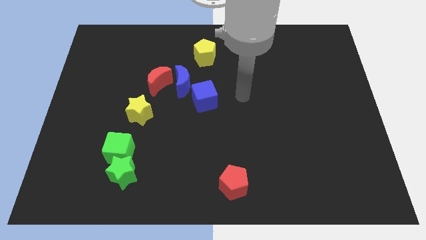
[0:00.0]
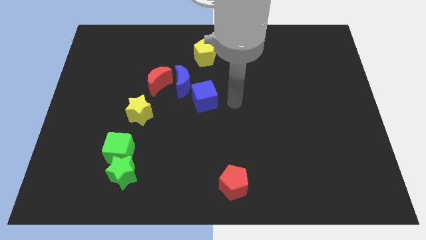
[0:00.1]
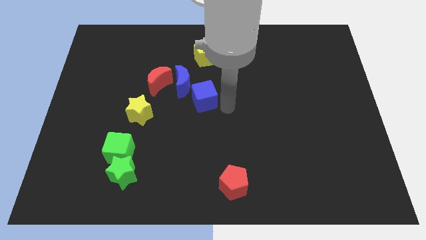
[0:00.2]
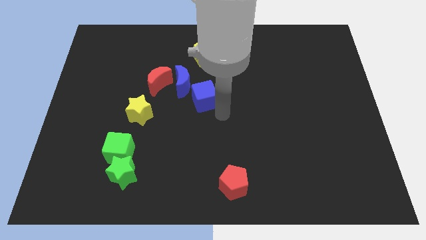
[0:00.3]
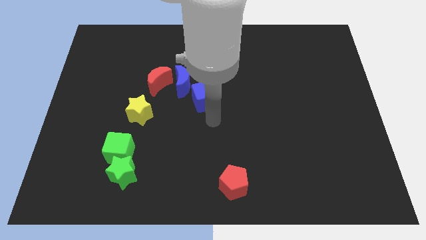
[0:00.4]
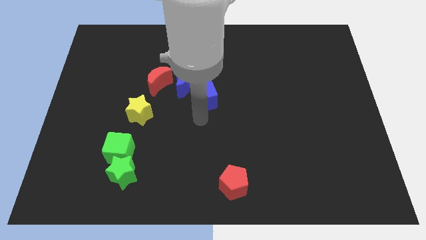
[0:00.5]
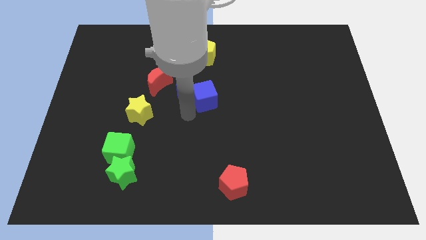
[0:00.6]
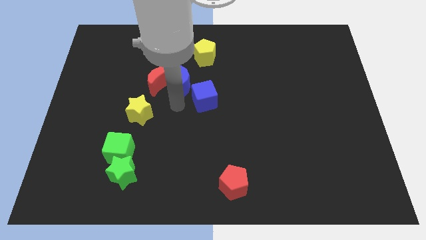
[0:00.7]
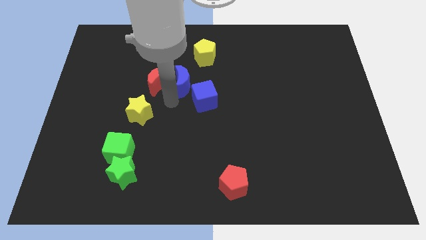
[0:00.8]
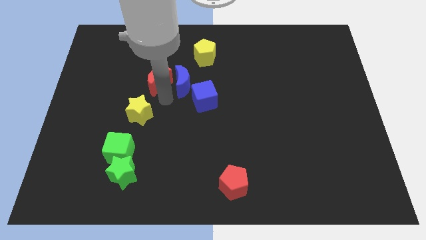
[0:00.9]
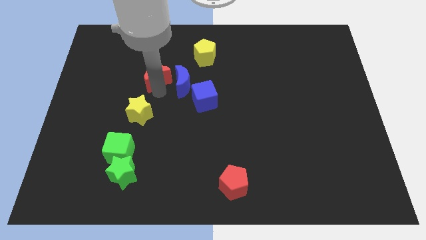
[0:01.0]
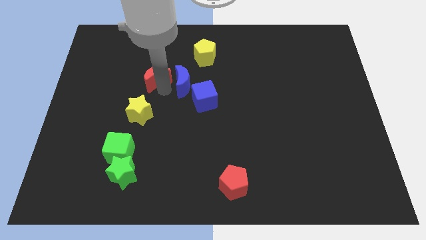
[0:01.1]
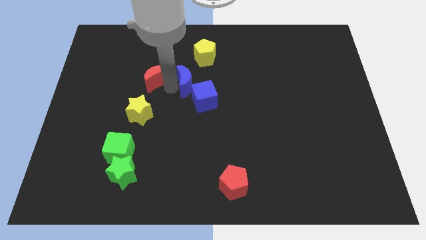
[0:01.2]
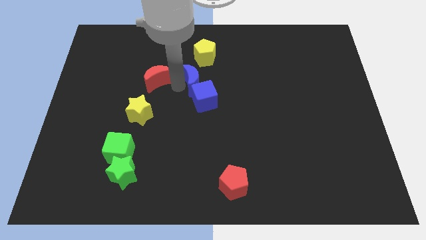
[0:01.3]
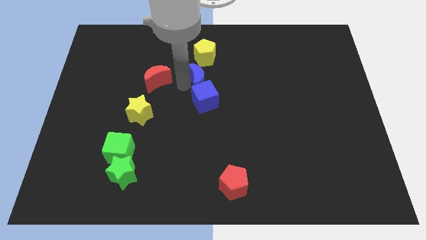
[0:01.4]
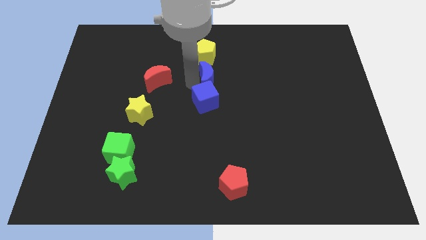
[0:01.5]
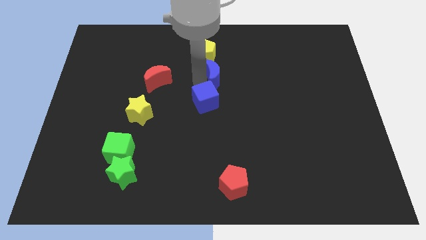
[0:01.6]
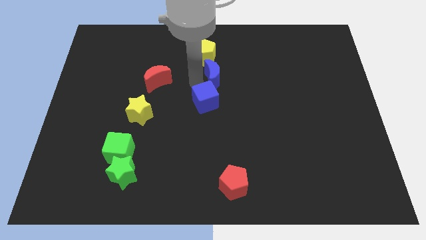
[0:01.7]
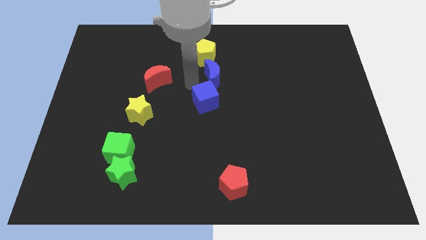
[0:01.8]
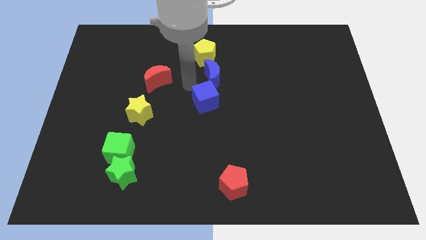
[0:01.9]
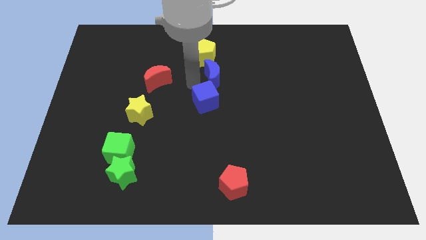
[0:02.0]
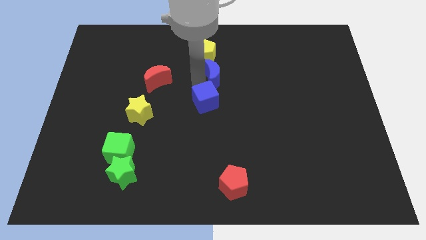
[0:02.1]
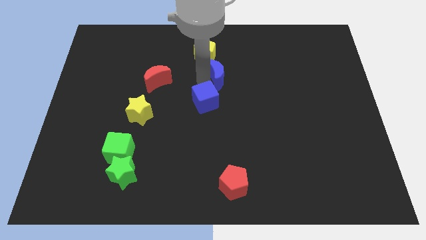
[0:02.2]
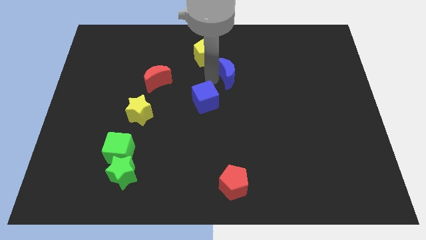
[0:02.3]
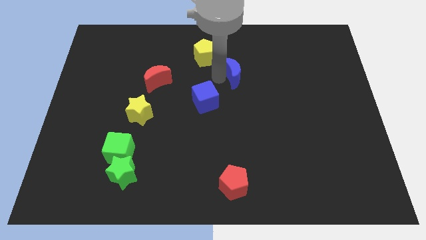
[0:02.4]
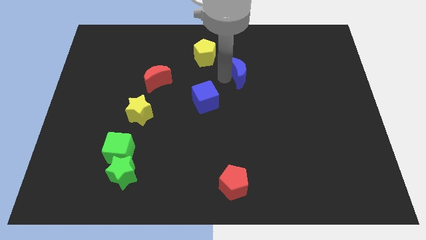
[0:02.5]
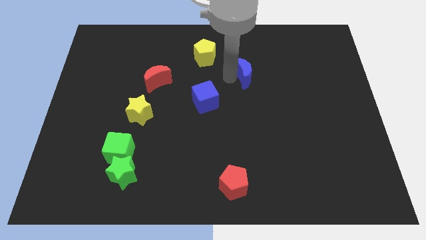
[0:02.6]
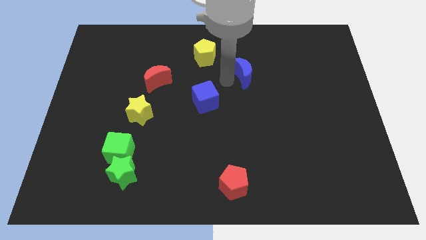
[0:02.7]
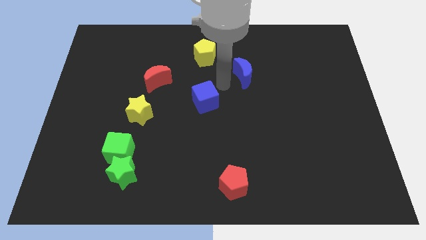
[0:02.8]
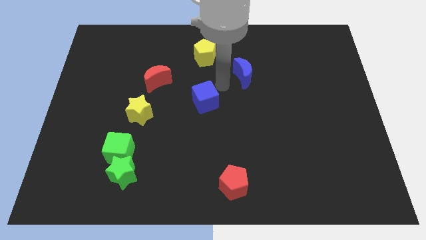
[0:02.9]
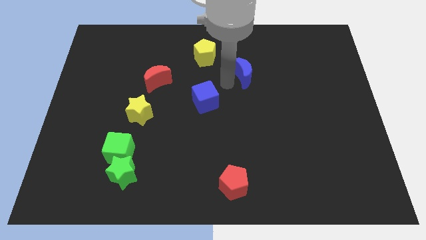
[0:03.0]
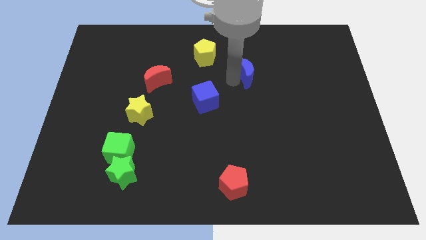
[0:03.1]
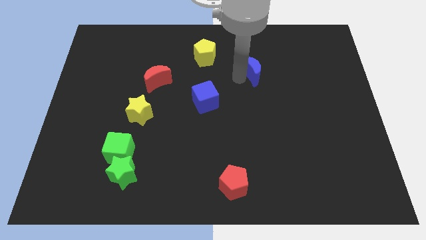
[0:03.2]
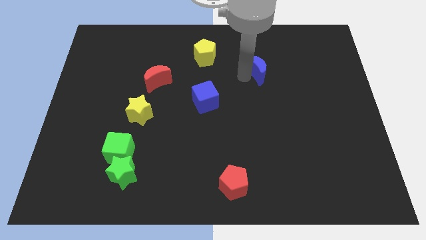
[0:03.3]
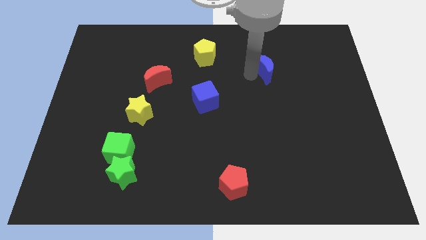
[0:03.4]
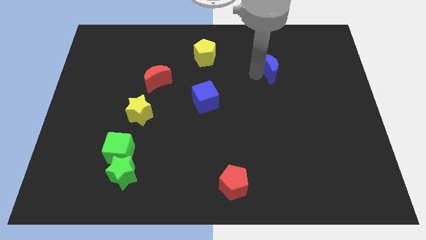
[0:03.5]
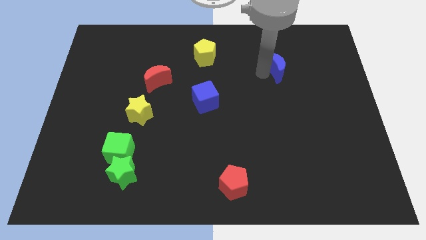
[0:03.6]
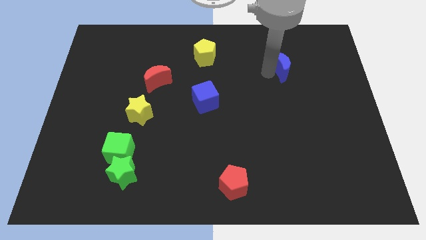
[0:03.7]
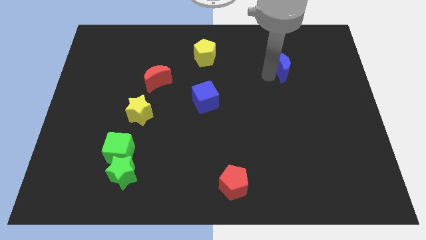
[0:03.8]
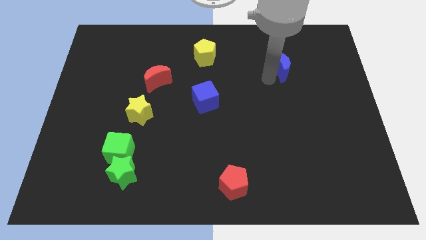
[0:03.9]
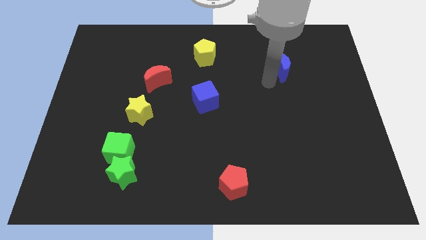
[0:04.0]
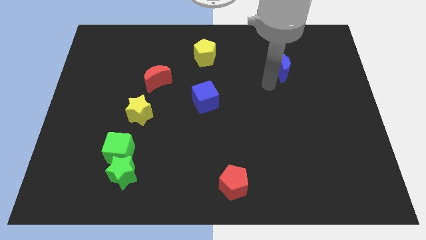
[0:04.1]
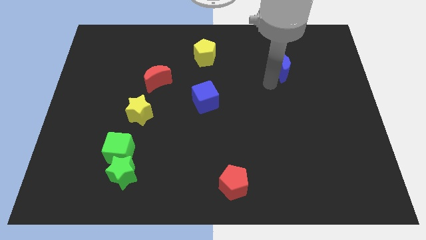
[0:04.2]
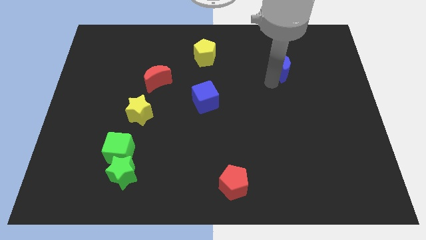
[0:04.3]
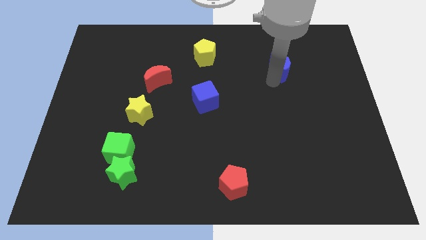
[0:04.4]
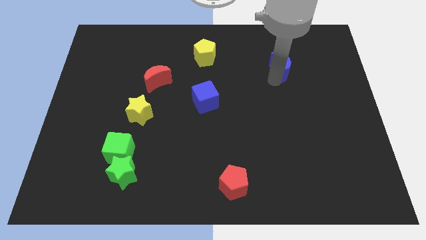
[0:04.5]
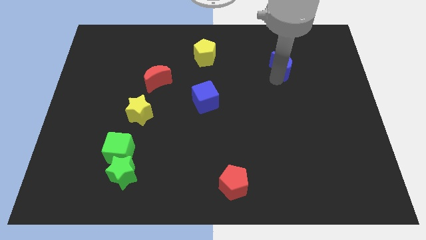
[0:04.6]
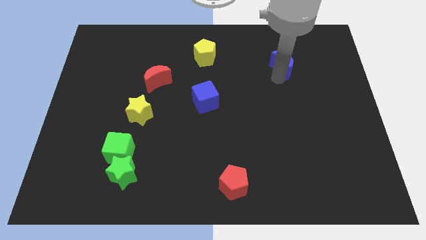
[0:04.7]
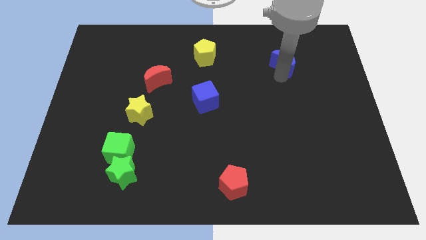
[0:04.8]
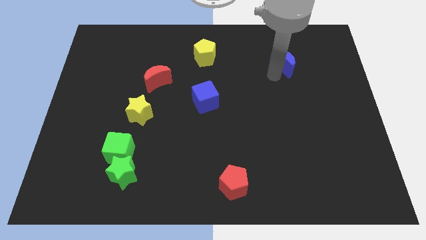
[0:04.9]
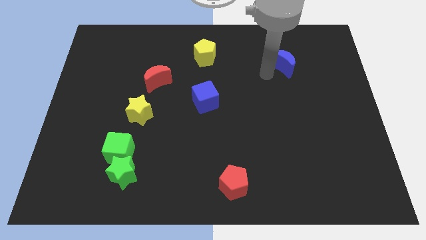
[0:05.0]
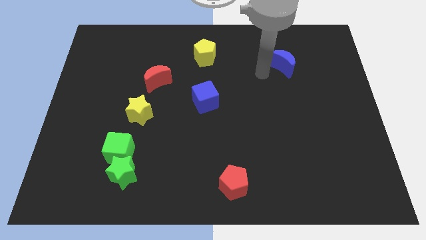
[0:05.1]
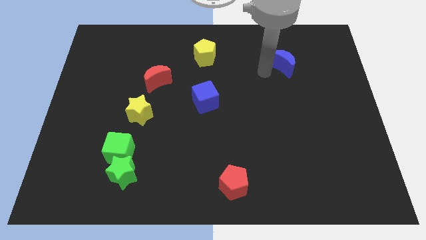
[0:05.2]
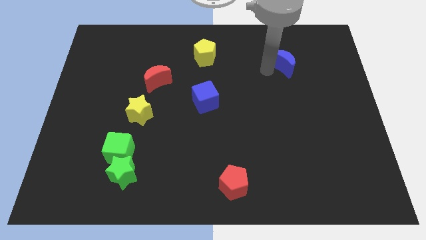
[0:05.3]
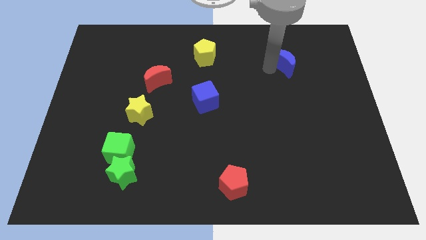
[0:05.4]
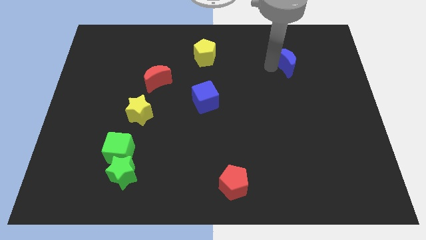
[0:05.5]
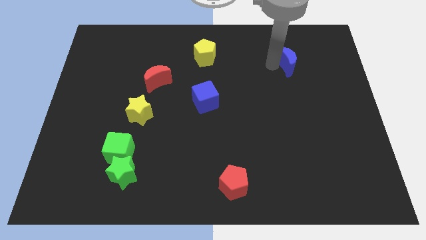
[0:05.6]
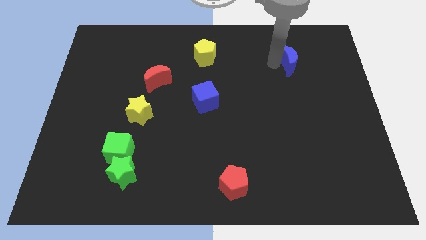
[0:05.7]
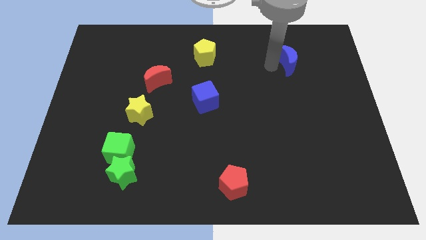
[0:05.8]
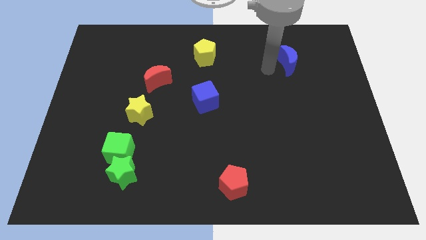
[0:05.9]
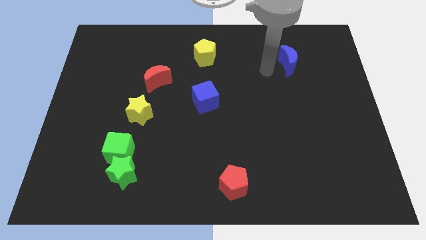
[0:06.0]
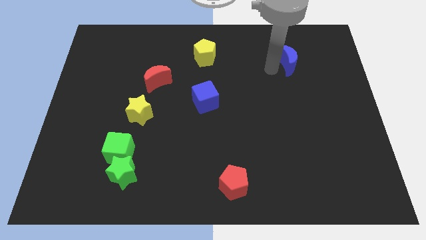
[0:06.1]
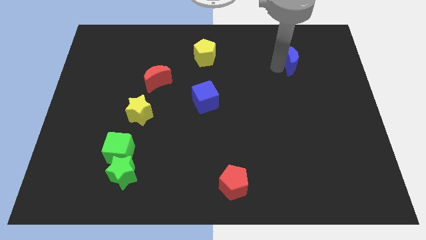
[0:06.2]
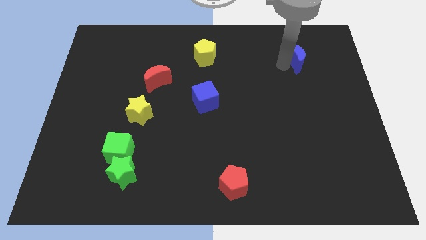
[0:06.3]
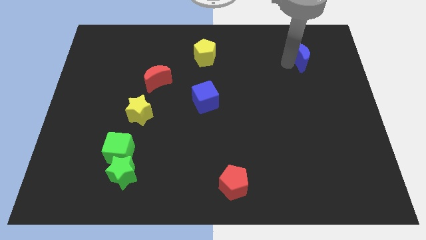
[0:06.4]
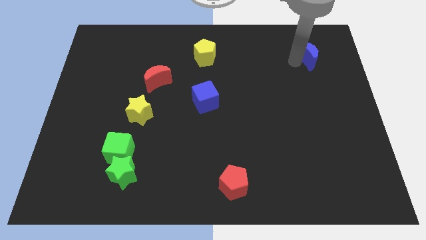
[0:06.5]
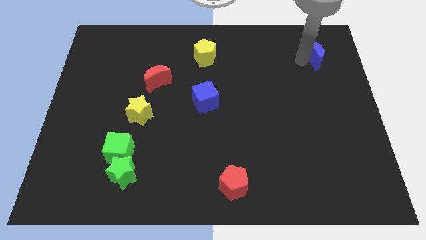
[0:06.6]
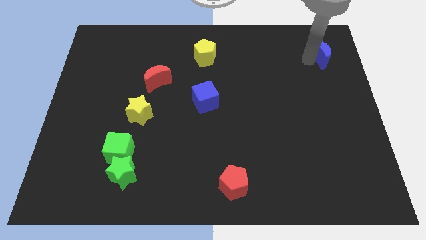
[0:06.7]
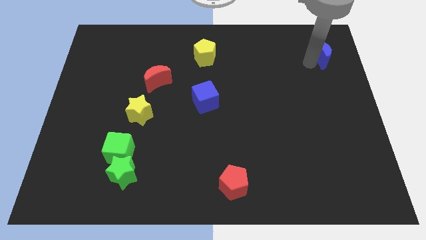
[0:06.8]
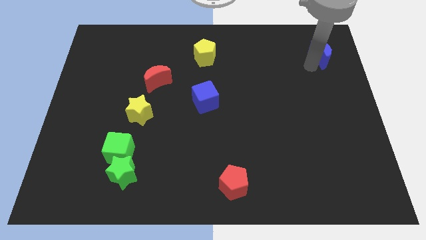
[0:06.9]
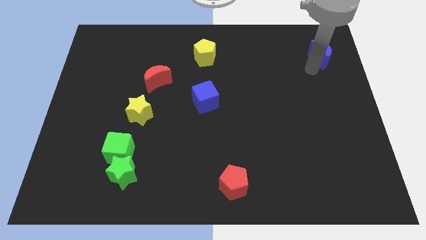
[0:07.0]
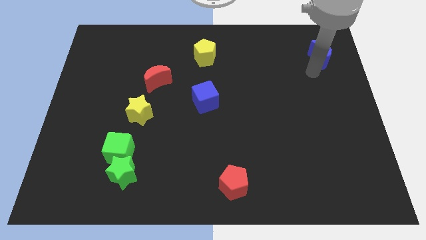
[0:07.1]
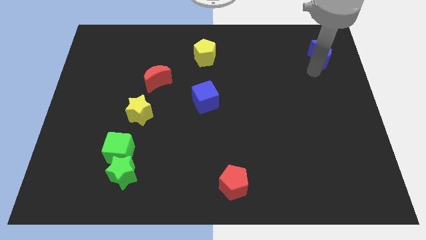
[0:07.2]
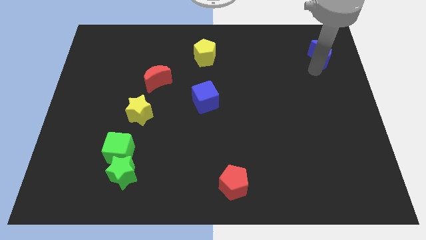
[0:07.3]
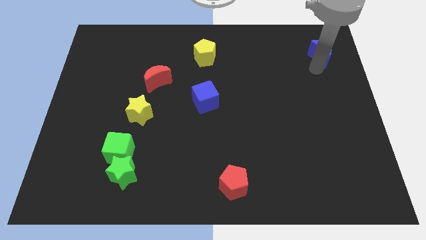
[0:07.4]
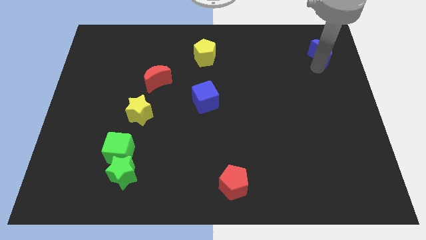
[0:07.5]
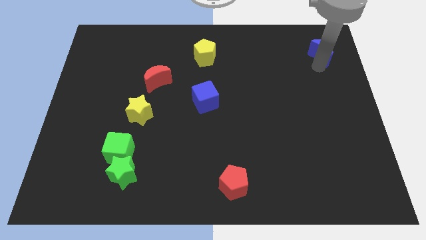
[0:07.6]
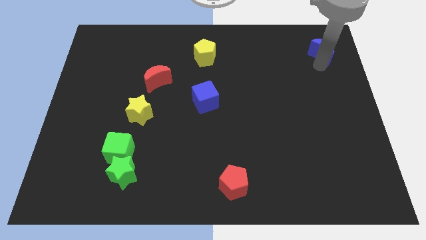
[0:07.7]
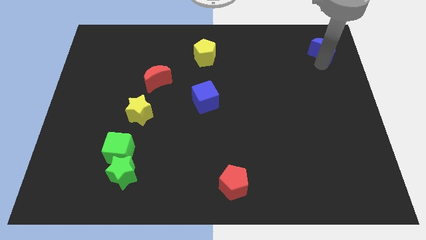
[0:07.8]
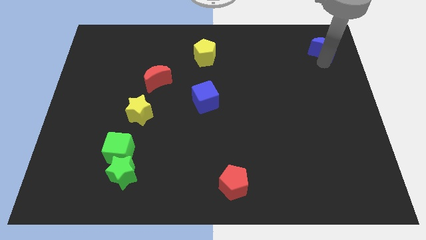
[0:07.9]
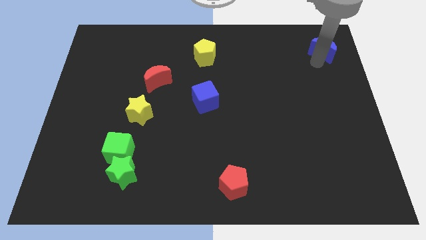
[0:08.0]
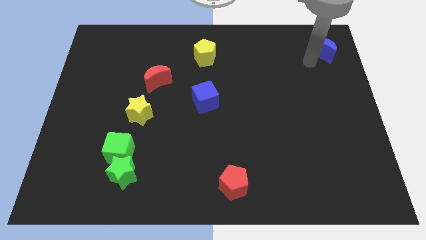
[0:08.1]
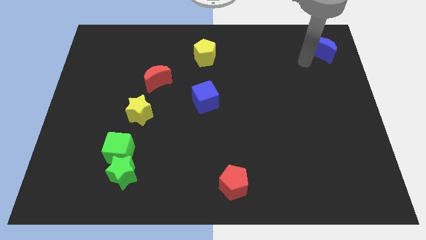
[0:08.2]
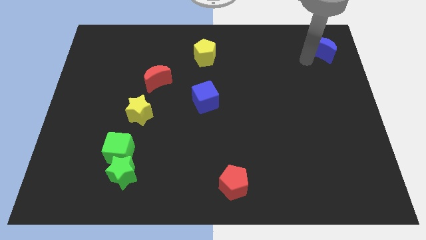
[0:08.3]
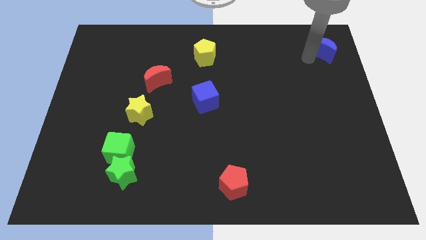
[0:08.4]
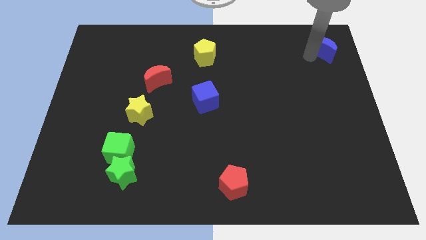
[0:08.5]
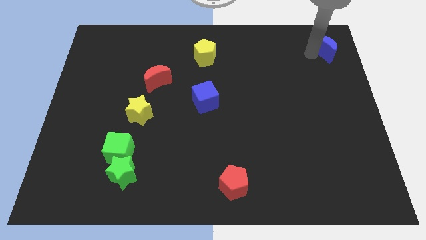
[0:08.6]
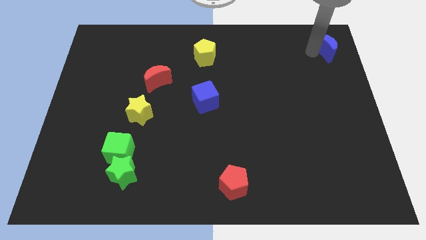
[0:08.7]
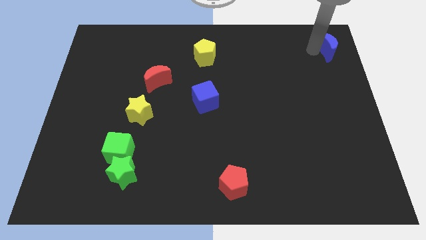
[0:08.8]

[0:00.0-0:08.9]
move the blue moon to the top right
